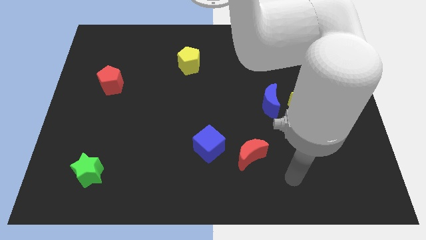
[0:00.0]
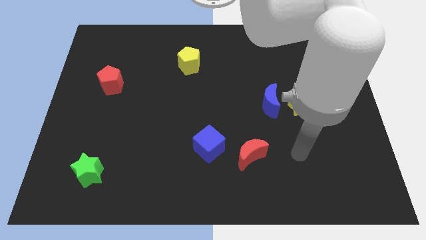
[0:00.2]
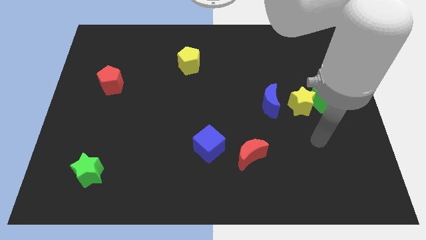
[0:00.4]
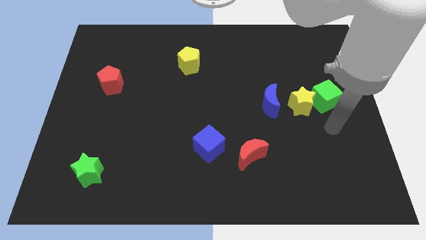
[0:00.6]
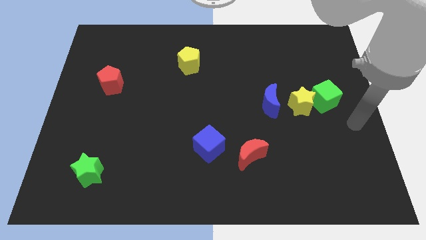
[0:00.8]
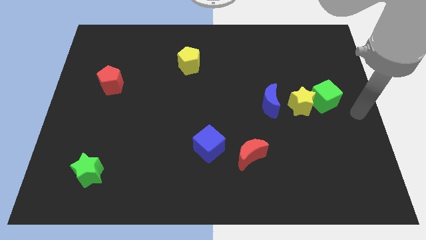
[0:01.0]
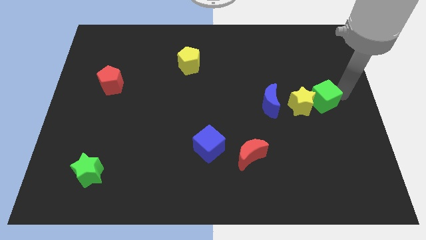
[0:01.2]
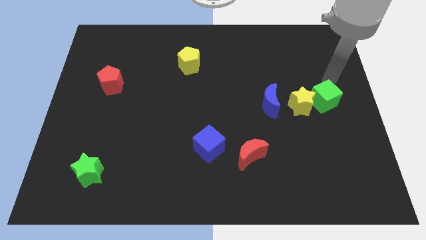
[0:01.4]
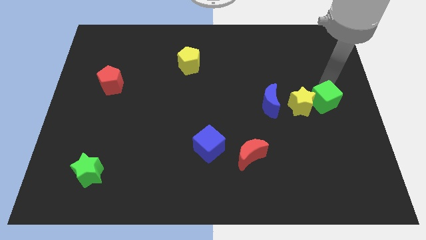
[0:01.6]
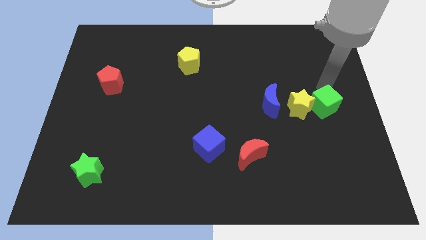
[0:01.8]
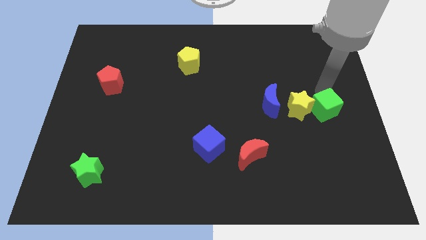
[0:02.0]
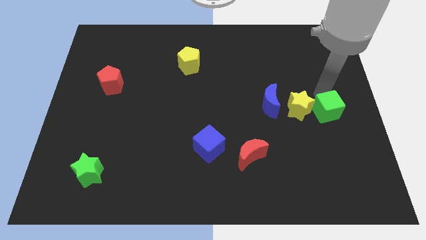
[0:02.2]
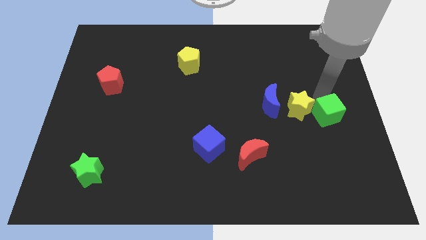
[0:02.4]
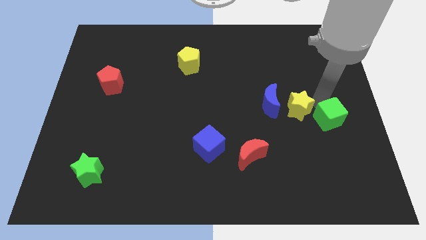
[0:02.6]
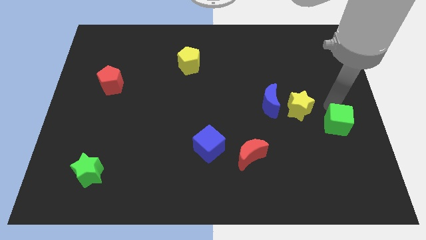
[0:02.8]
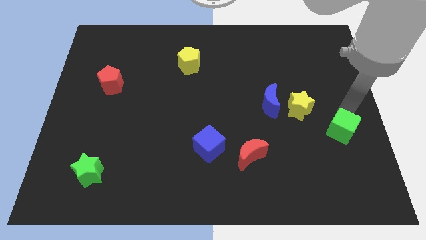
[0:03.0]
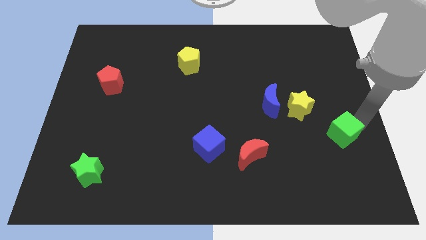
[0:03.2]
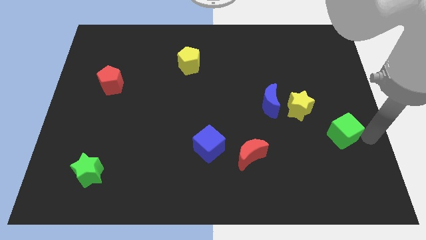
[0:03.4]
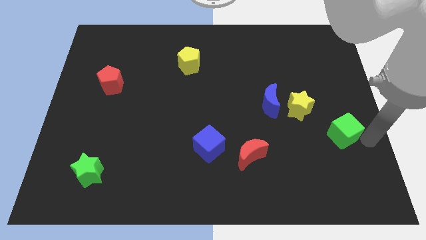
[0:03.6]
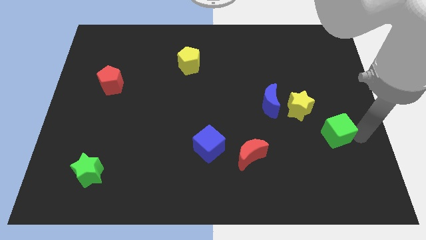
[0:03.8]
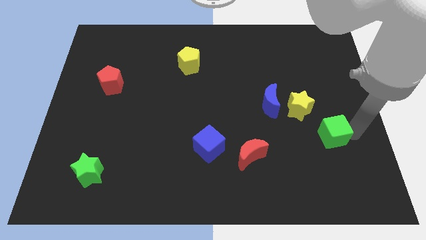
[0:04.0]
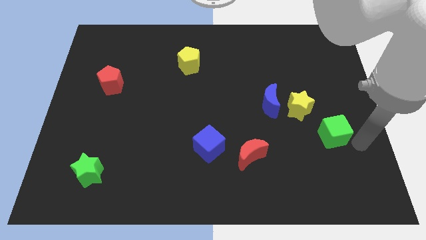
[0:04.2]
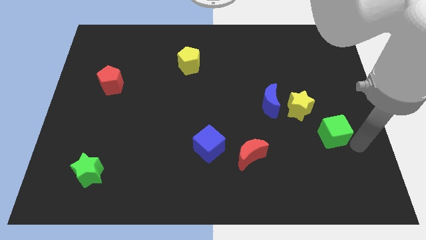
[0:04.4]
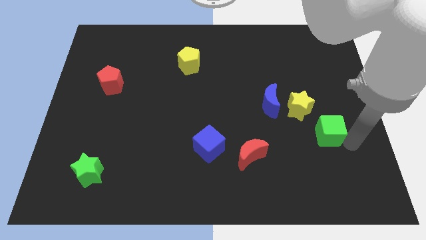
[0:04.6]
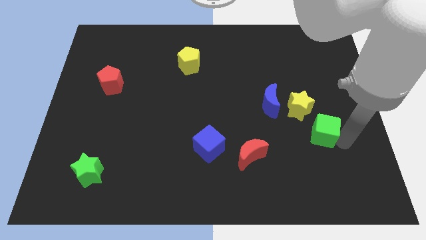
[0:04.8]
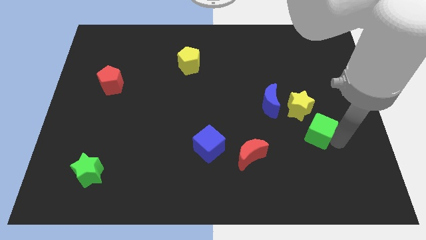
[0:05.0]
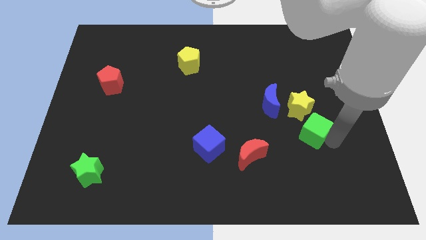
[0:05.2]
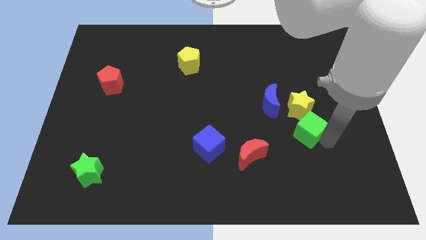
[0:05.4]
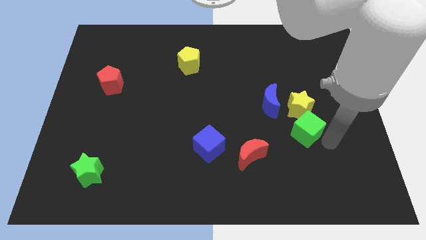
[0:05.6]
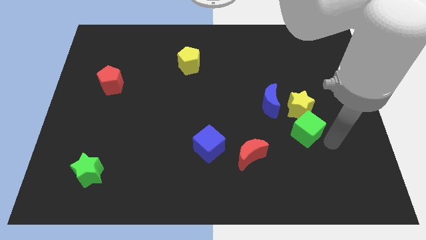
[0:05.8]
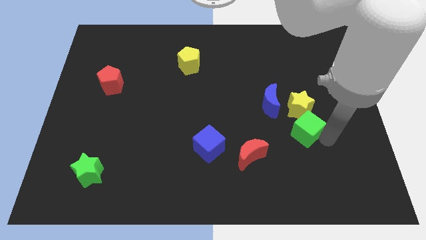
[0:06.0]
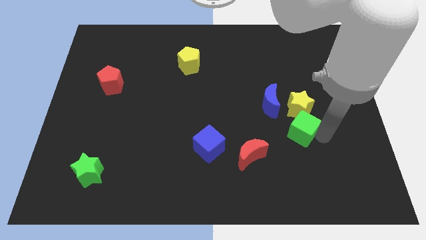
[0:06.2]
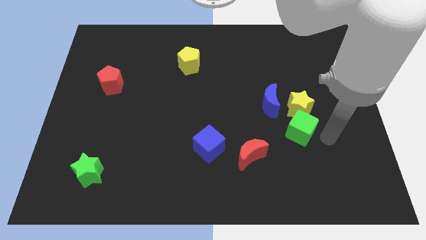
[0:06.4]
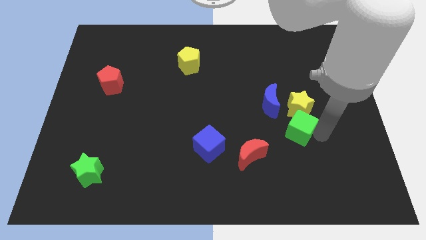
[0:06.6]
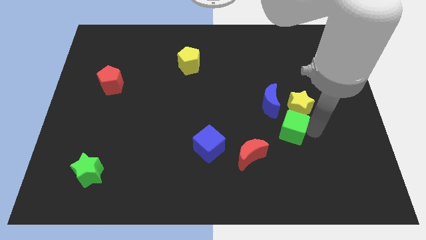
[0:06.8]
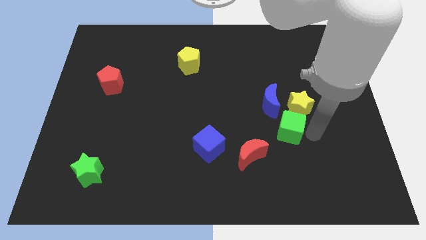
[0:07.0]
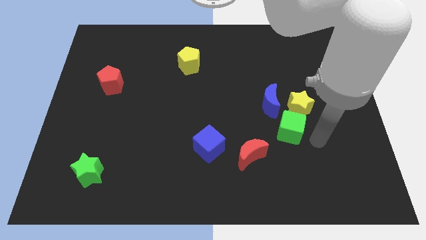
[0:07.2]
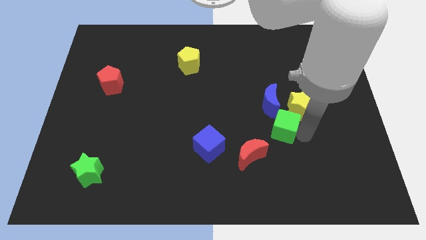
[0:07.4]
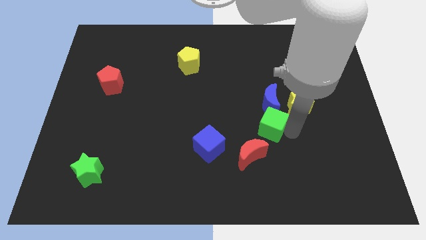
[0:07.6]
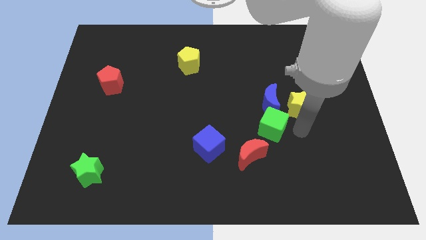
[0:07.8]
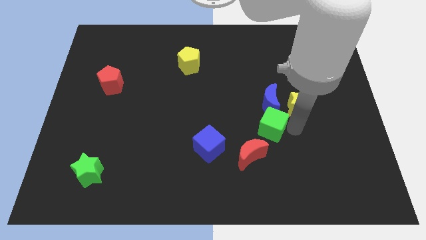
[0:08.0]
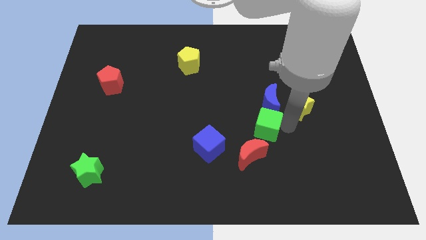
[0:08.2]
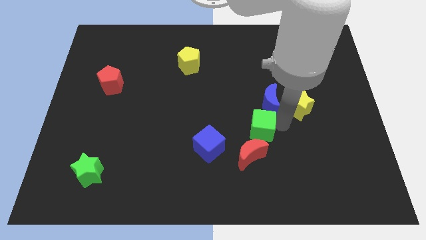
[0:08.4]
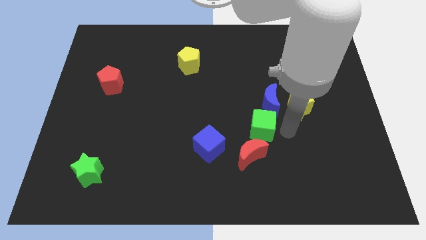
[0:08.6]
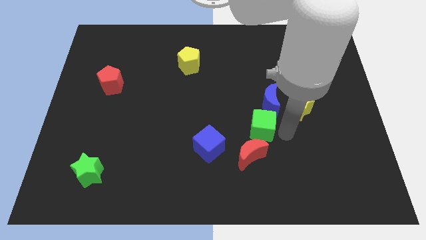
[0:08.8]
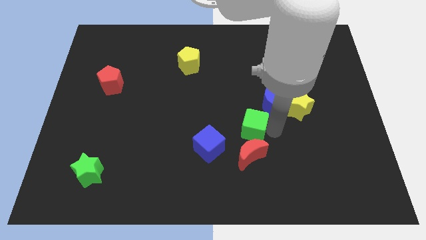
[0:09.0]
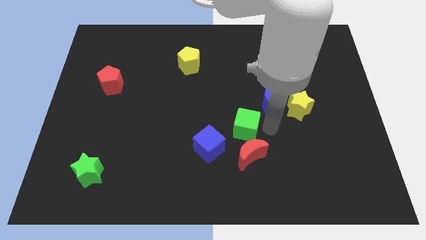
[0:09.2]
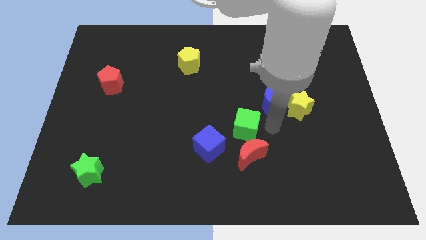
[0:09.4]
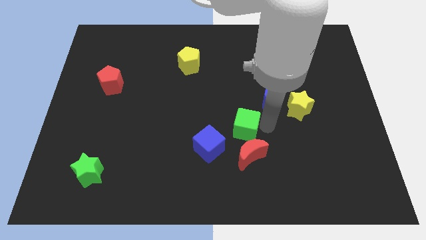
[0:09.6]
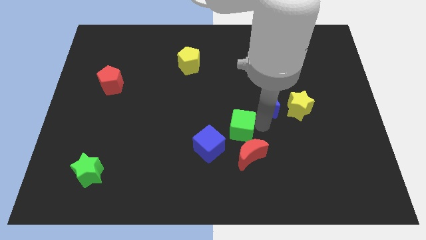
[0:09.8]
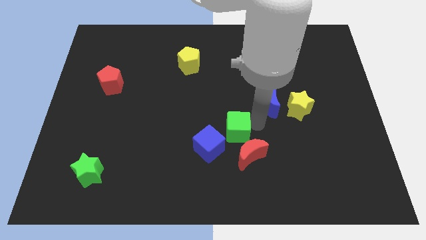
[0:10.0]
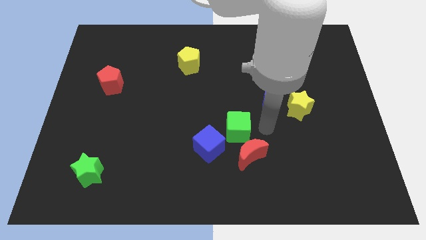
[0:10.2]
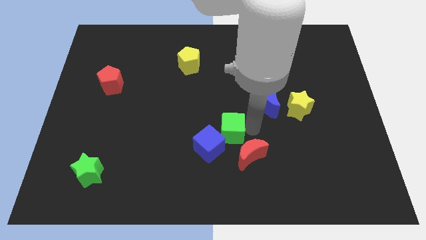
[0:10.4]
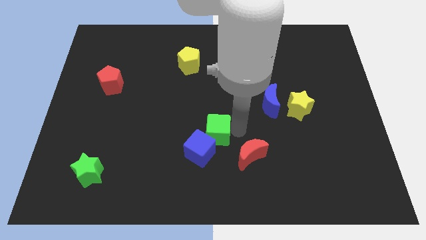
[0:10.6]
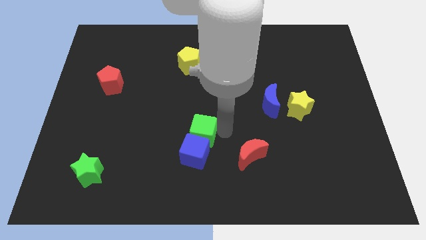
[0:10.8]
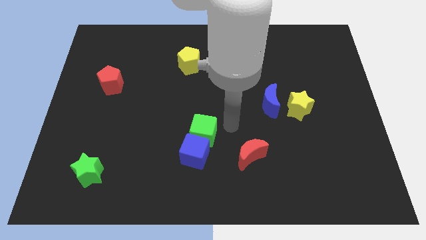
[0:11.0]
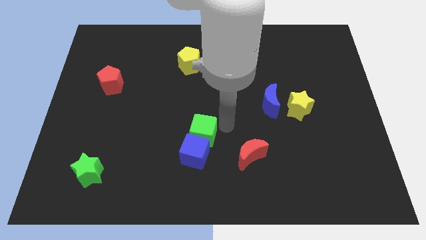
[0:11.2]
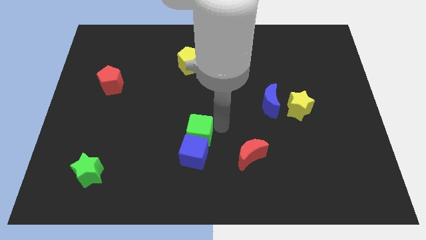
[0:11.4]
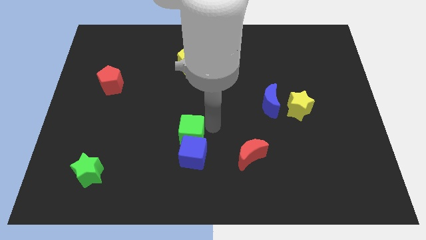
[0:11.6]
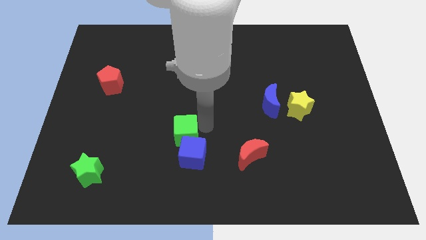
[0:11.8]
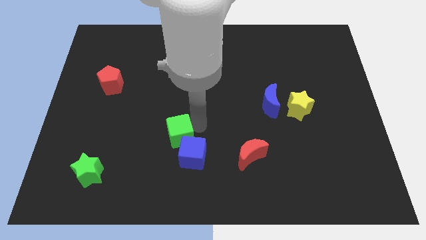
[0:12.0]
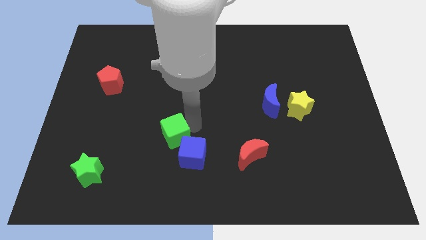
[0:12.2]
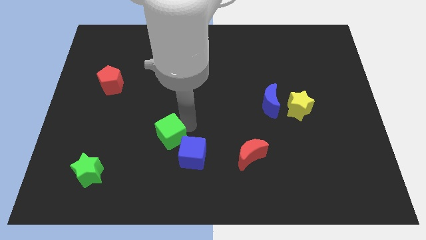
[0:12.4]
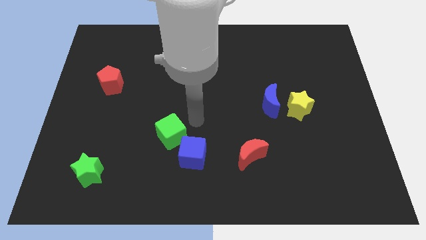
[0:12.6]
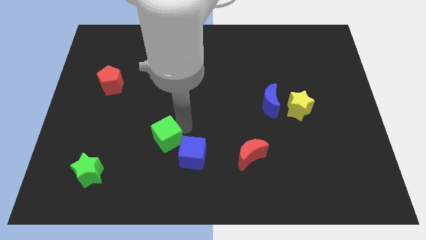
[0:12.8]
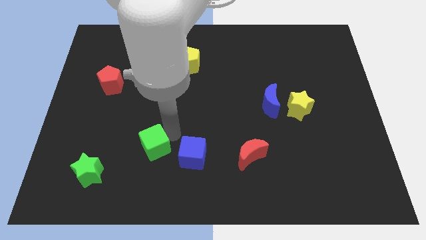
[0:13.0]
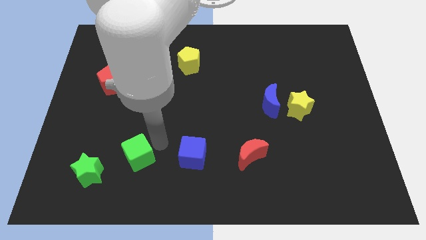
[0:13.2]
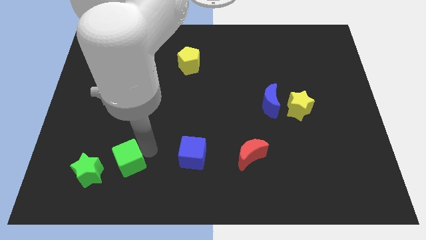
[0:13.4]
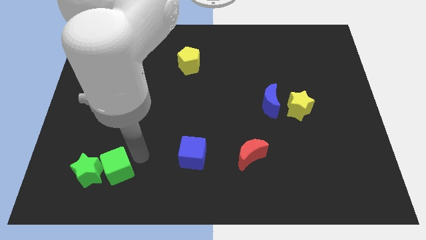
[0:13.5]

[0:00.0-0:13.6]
move the green cube towards the green star

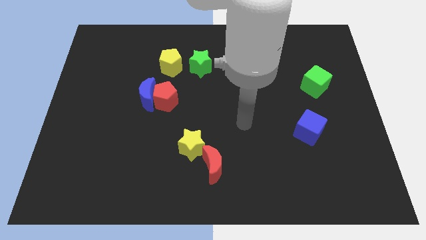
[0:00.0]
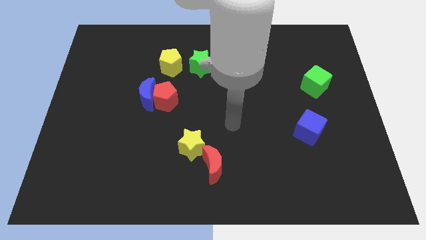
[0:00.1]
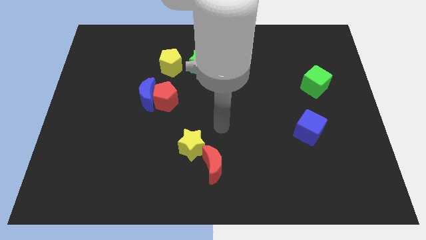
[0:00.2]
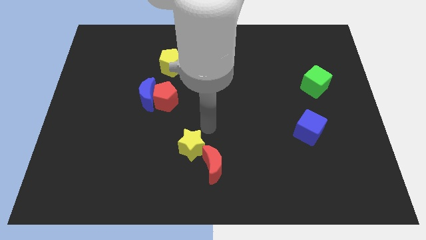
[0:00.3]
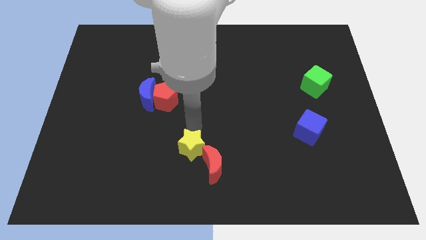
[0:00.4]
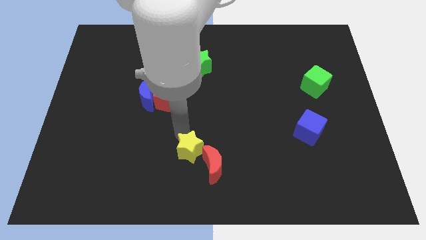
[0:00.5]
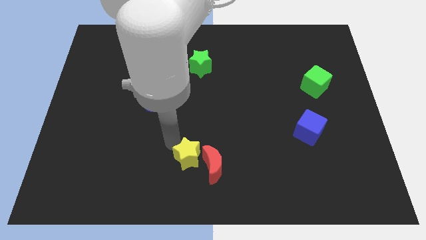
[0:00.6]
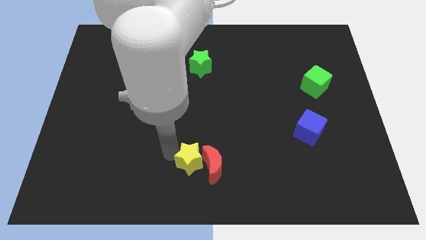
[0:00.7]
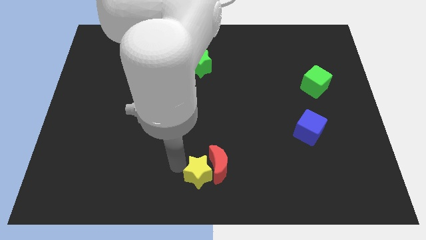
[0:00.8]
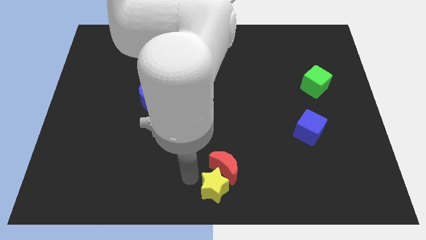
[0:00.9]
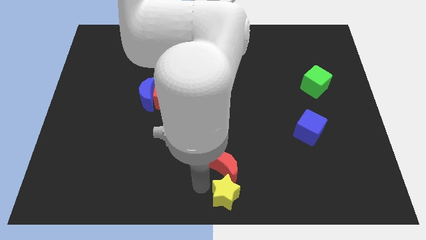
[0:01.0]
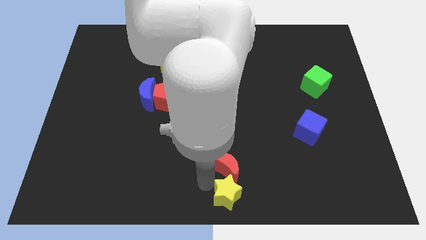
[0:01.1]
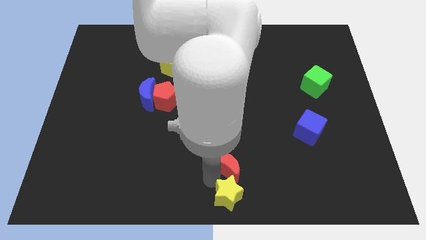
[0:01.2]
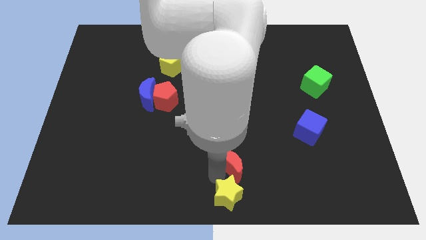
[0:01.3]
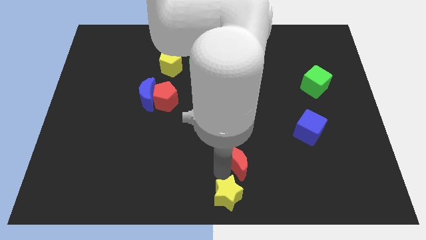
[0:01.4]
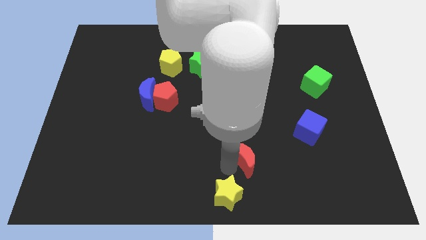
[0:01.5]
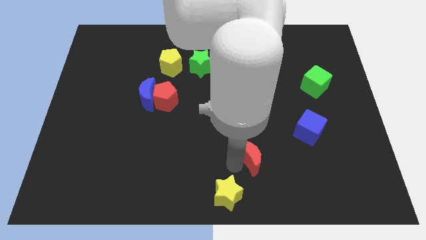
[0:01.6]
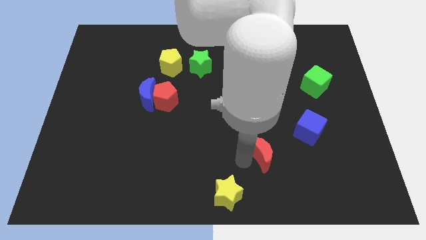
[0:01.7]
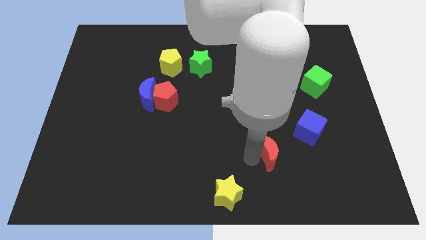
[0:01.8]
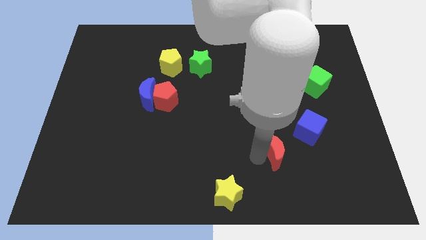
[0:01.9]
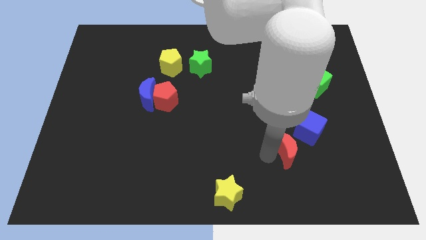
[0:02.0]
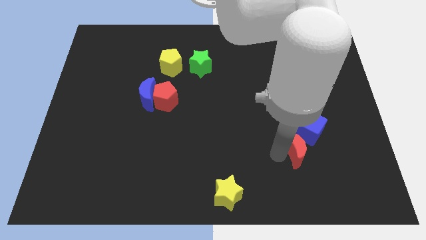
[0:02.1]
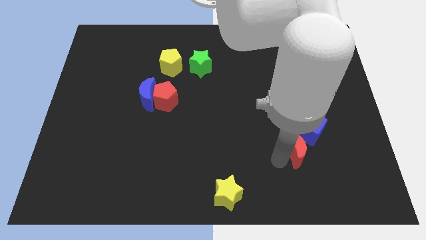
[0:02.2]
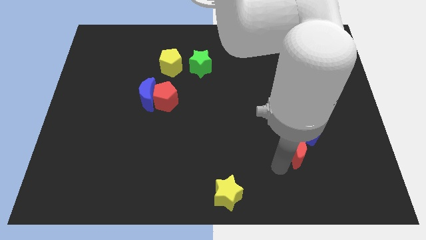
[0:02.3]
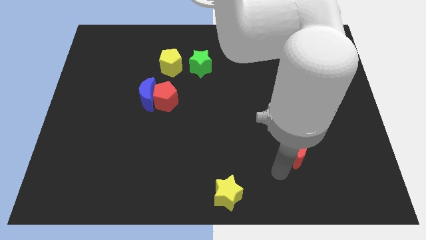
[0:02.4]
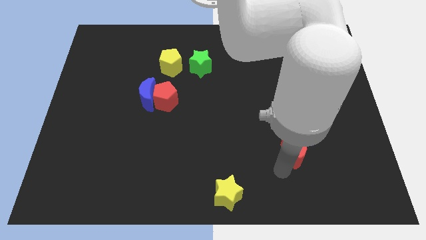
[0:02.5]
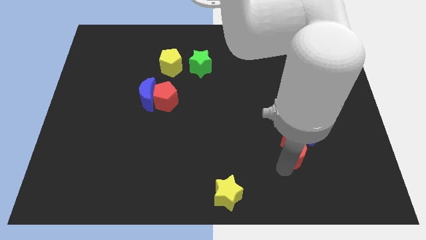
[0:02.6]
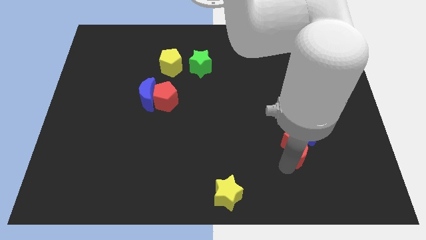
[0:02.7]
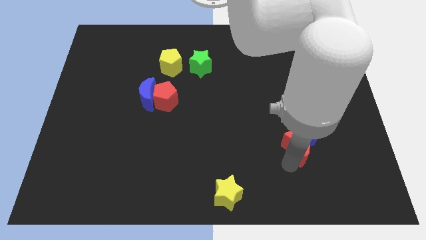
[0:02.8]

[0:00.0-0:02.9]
move the red moon towards the blue cube
